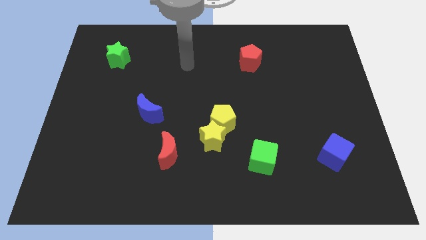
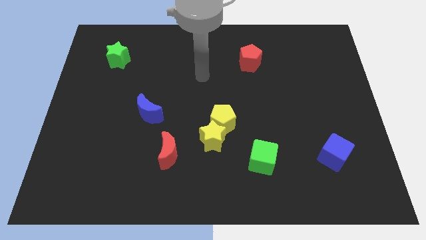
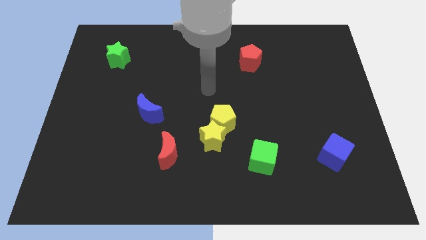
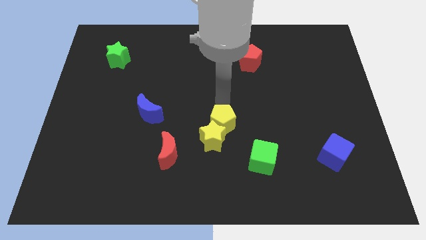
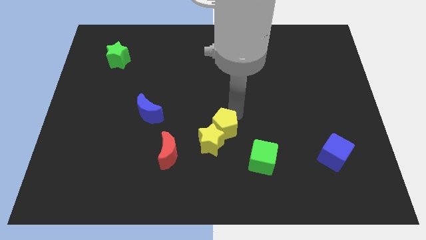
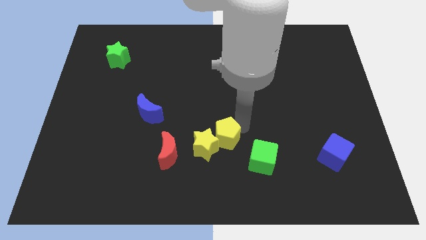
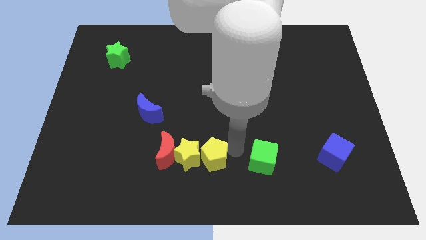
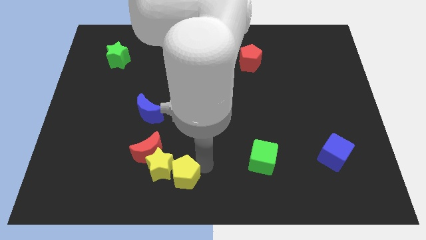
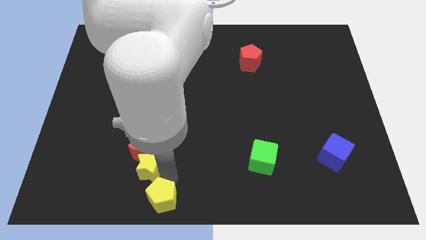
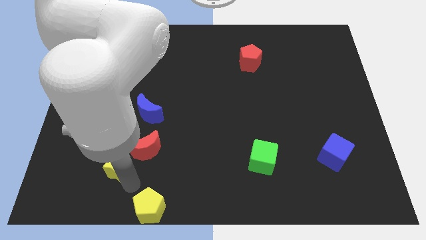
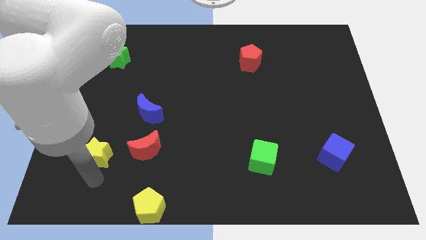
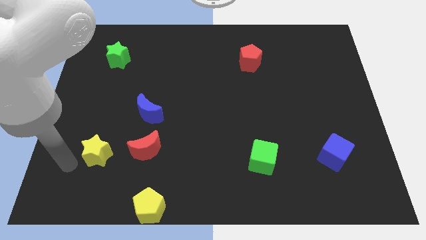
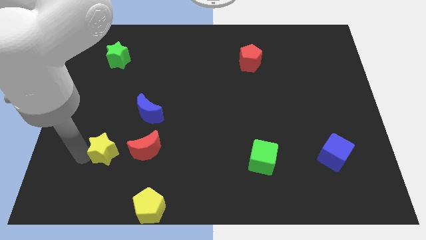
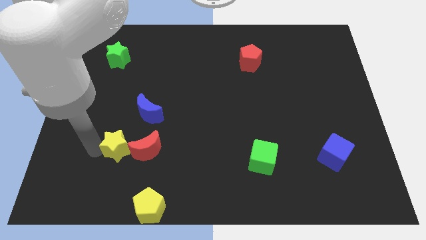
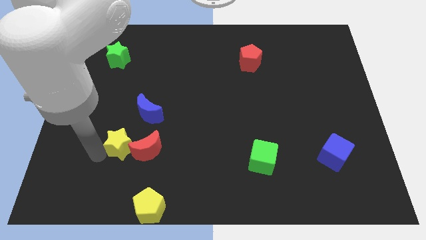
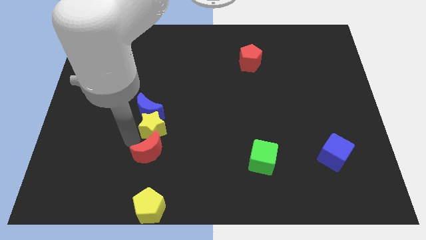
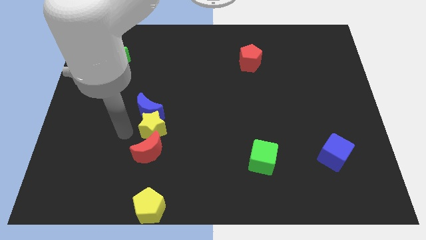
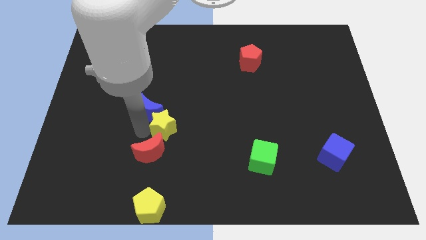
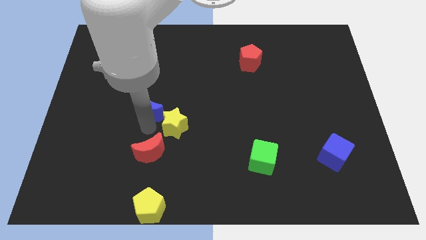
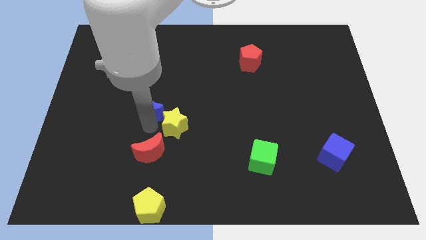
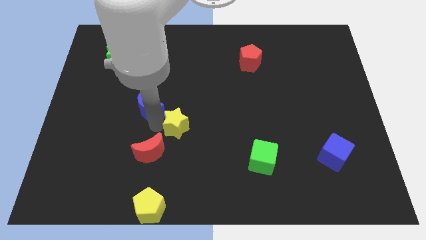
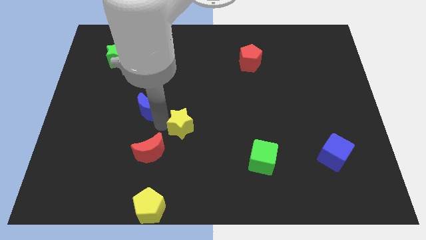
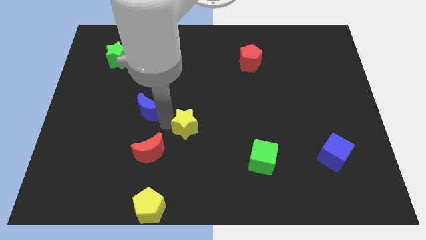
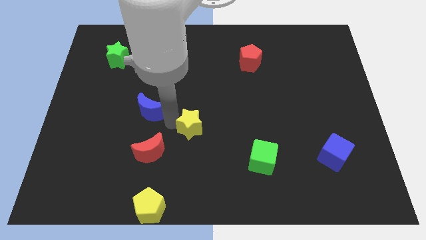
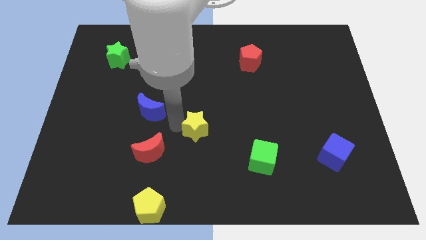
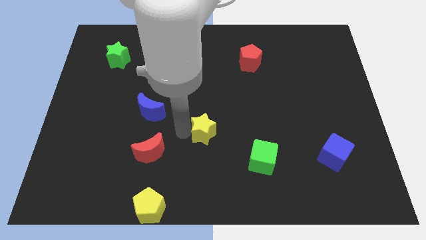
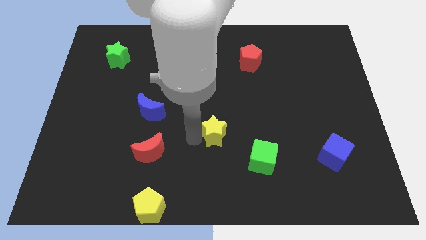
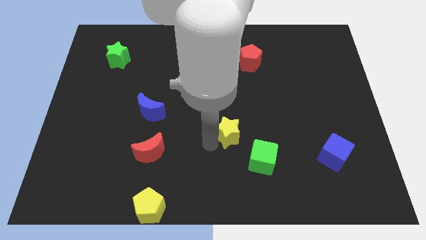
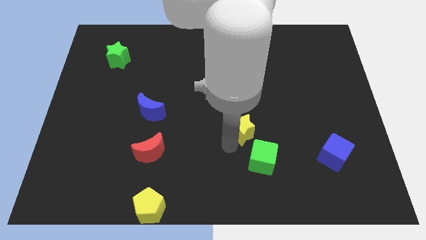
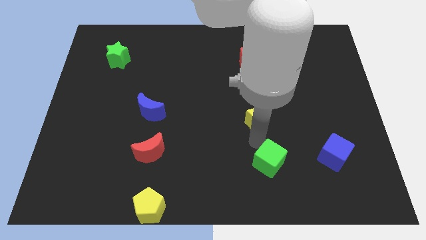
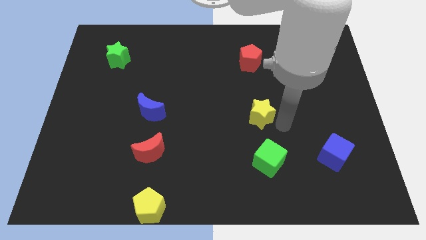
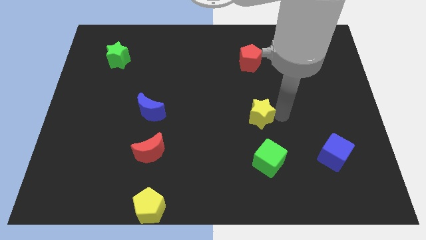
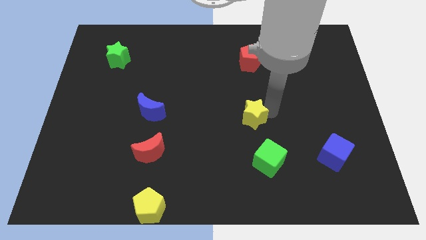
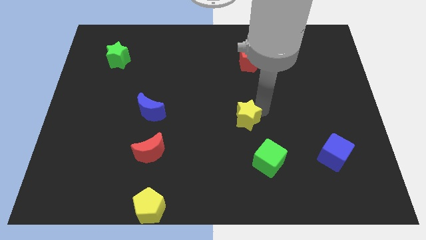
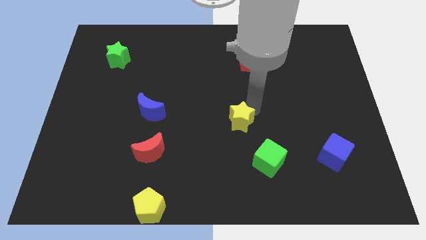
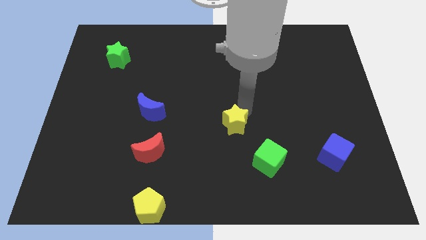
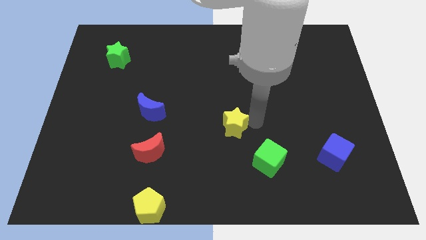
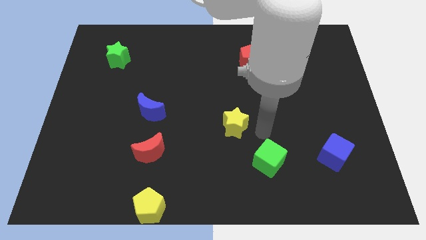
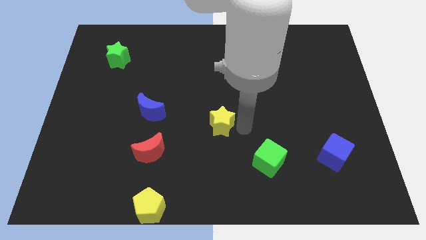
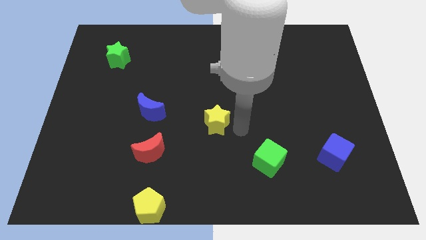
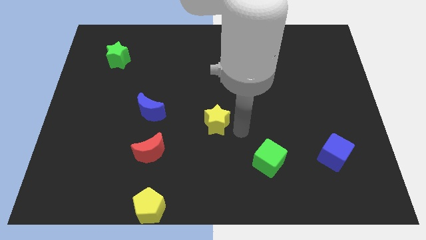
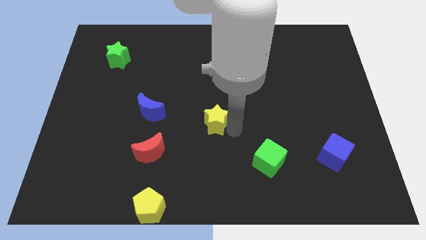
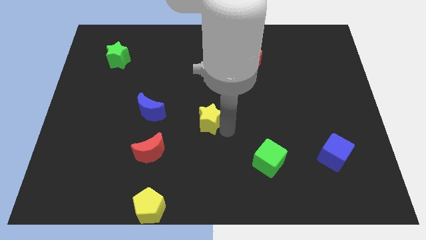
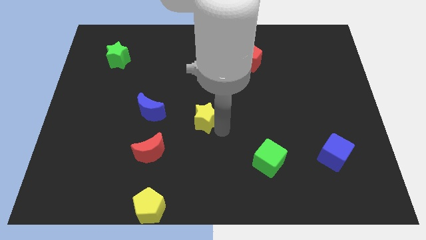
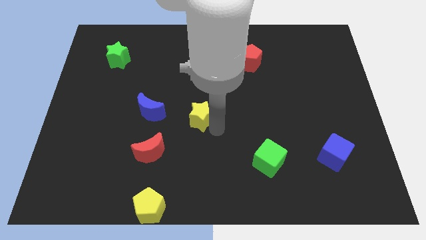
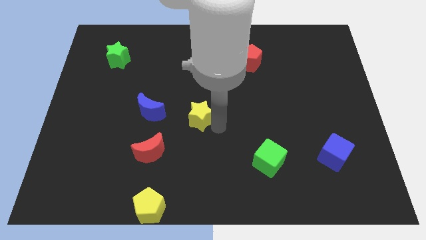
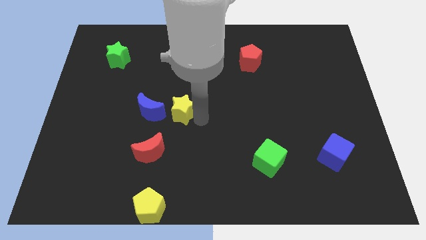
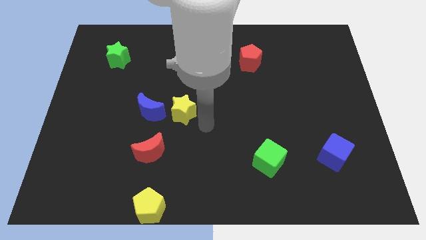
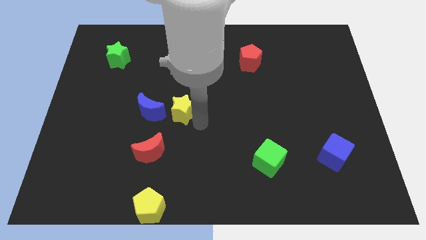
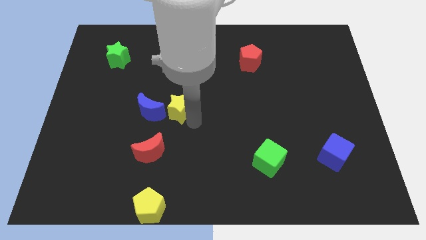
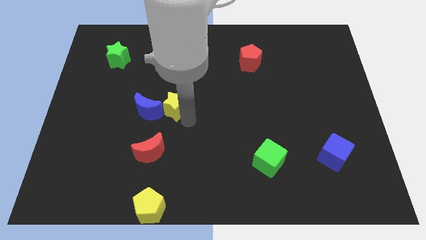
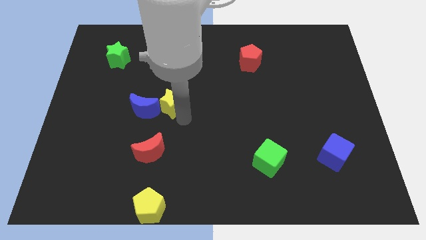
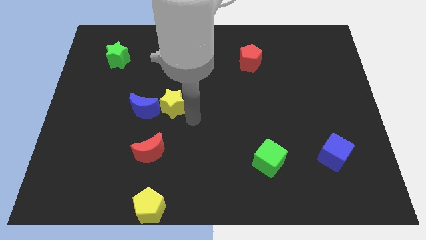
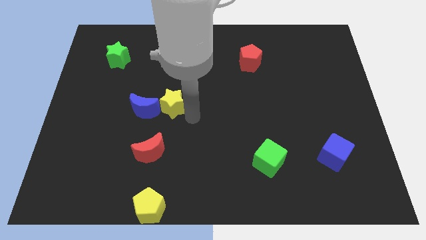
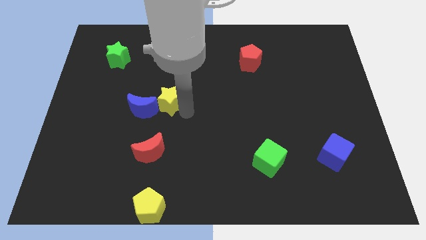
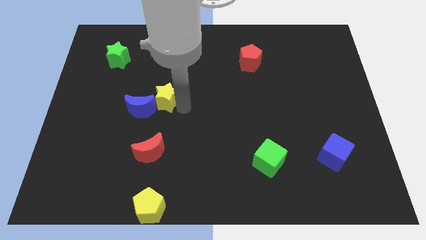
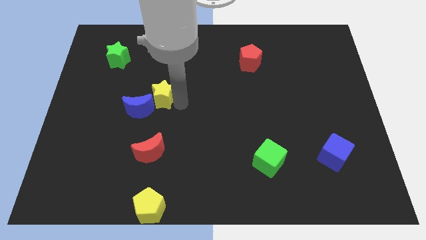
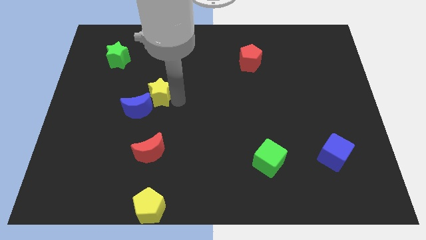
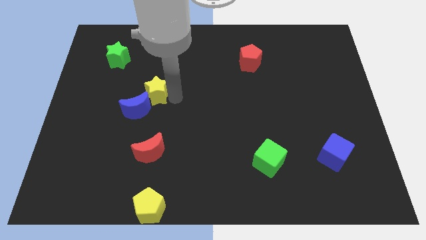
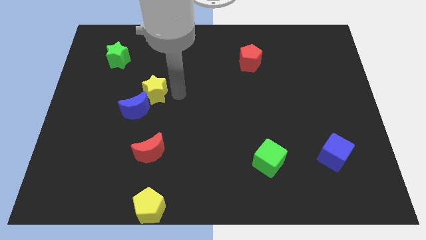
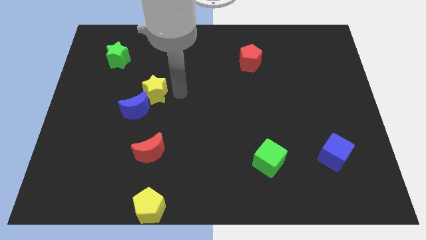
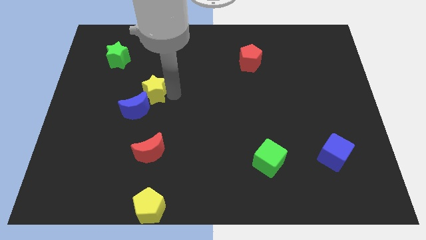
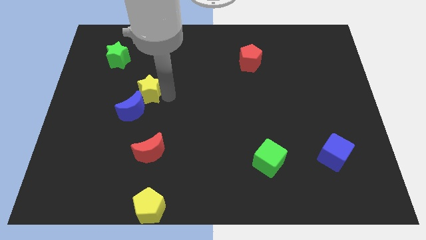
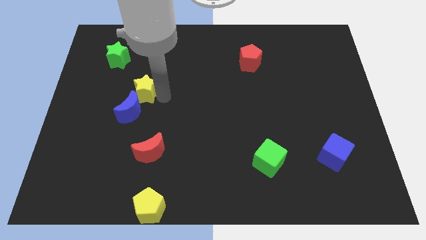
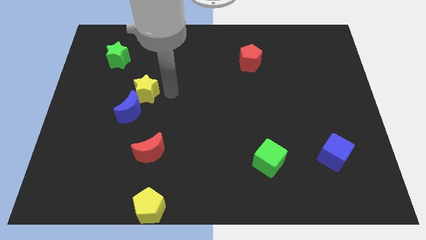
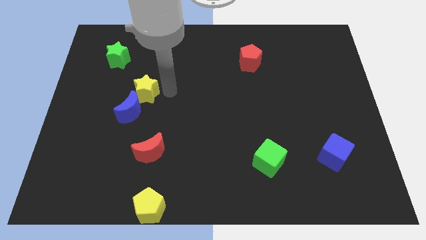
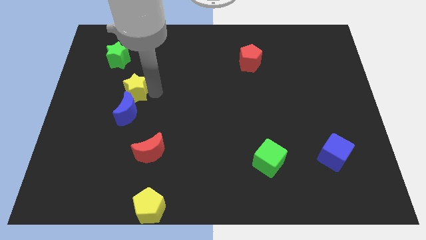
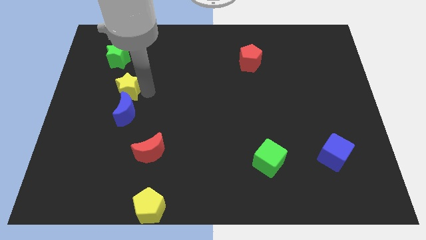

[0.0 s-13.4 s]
put the yellow star below the green star

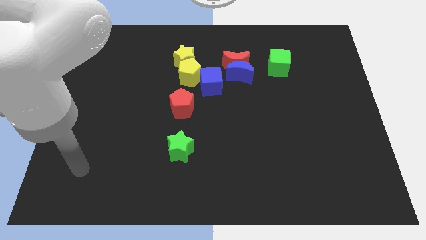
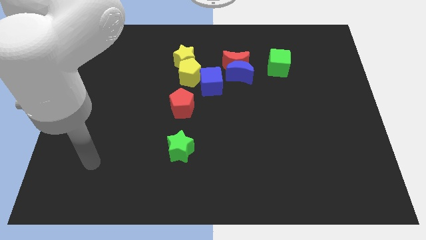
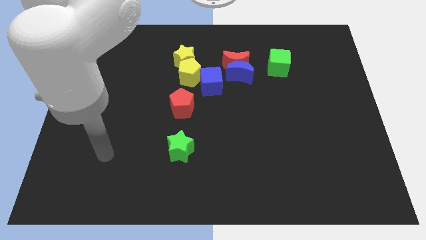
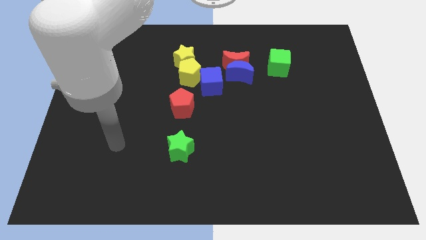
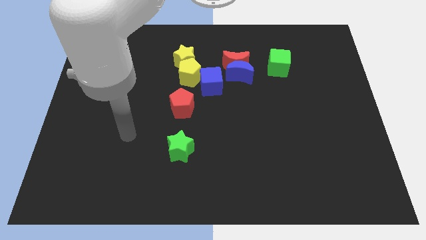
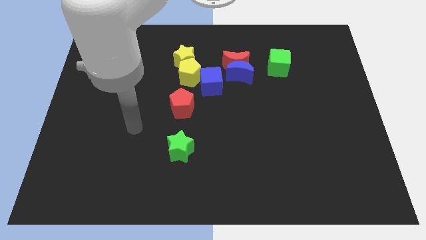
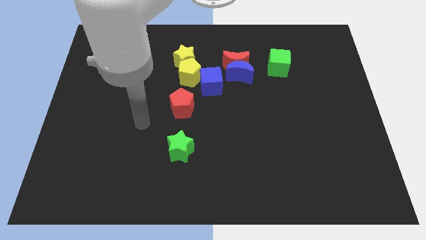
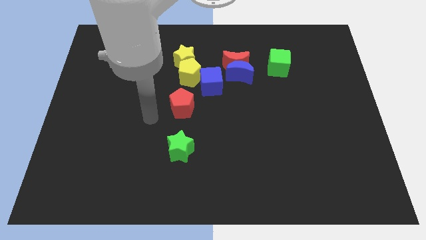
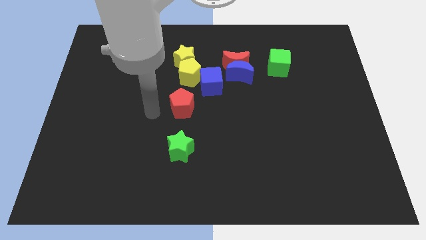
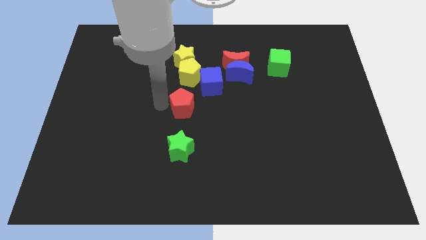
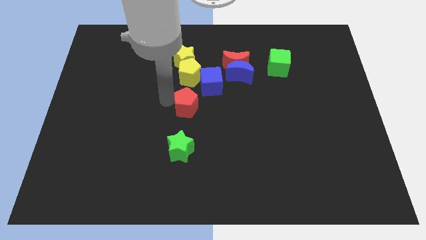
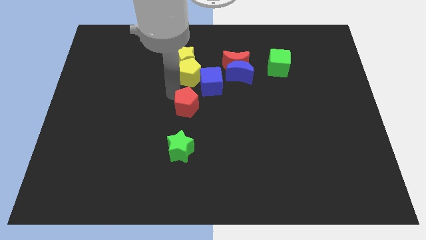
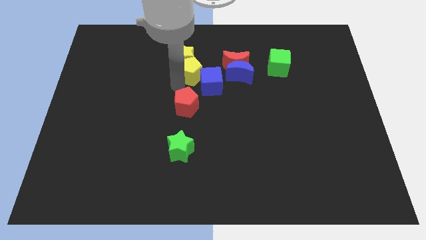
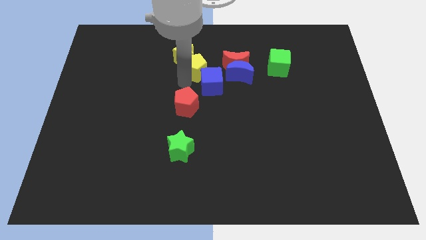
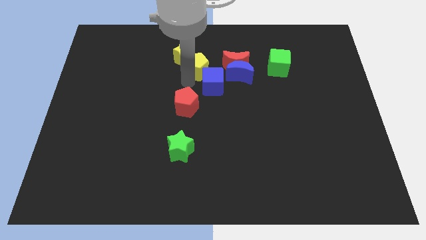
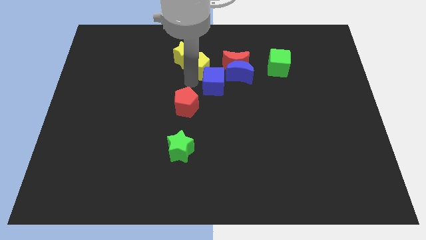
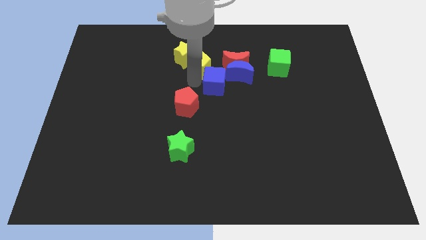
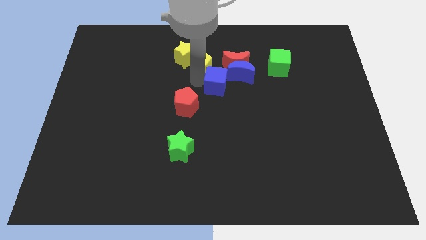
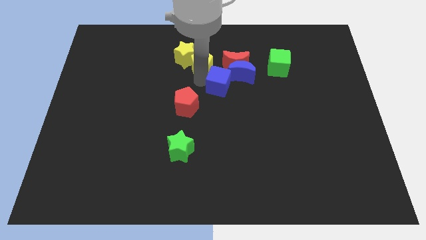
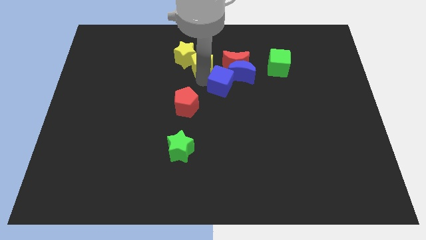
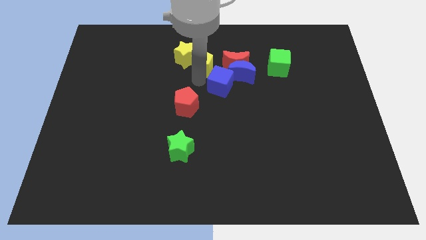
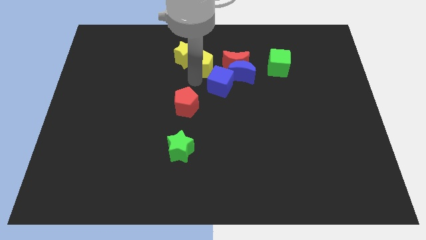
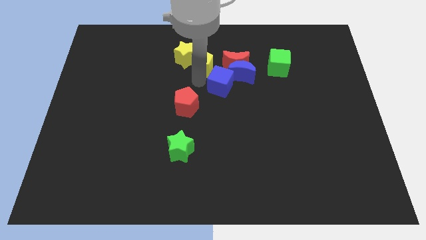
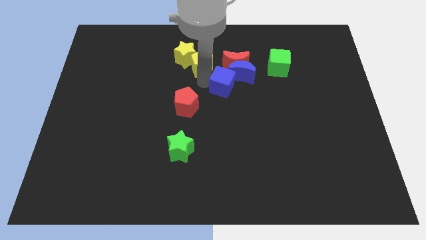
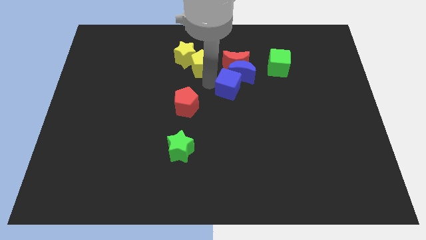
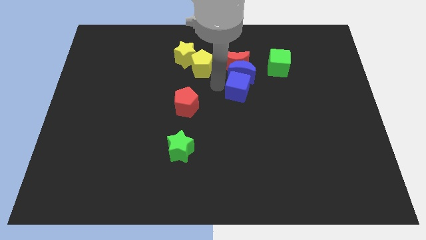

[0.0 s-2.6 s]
slide the blue cube to the bottom right side of the blue moon
